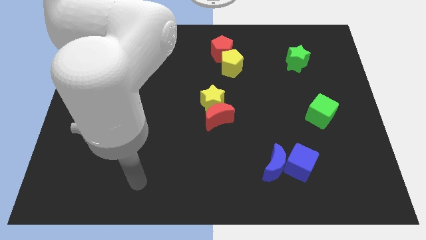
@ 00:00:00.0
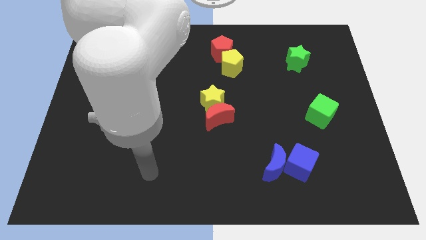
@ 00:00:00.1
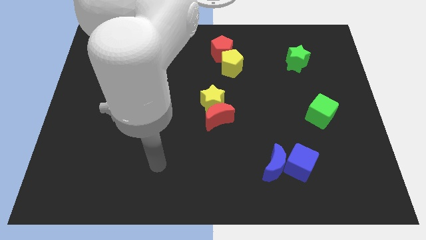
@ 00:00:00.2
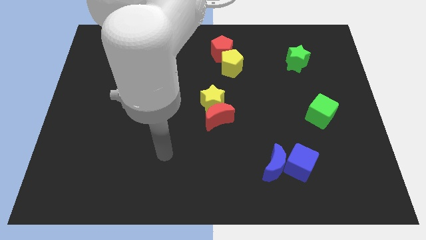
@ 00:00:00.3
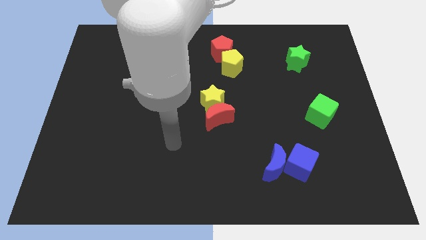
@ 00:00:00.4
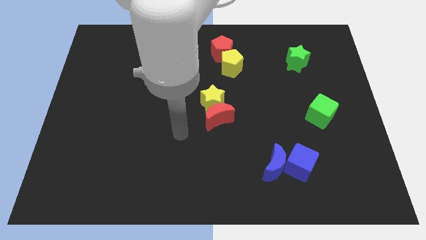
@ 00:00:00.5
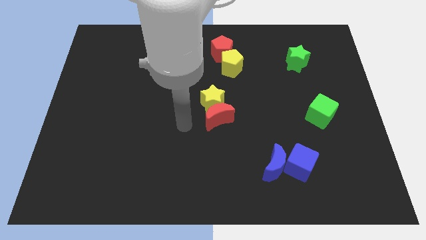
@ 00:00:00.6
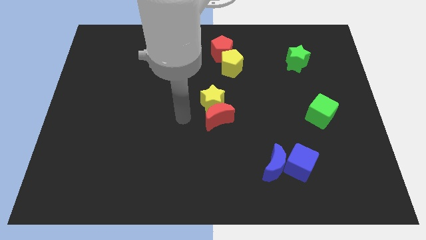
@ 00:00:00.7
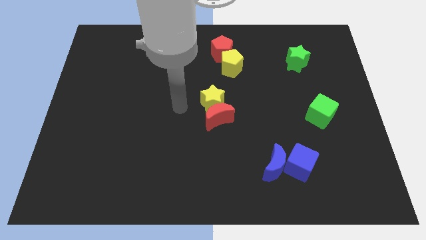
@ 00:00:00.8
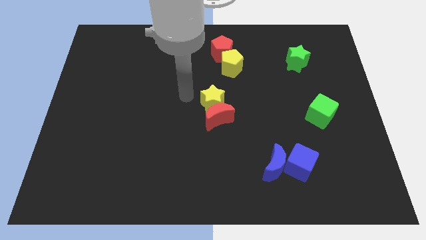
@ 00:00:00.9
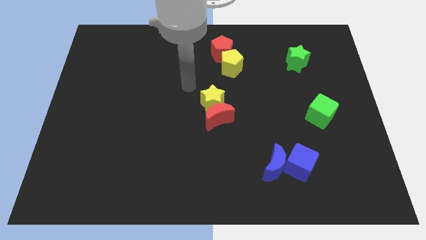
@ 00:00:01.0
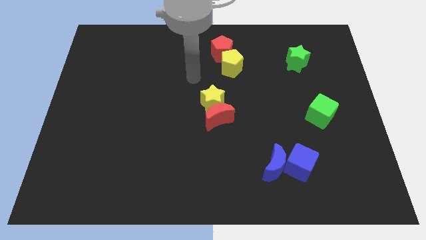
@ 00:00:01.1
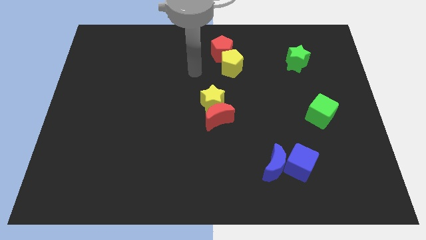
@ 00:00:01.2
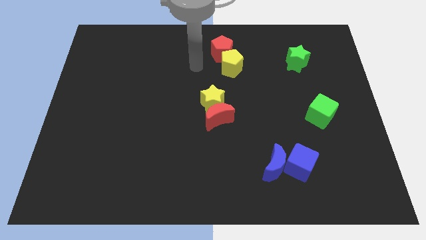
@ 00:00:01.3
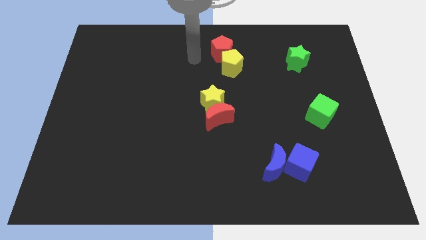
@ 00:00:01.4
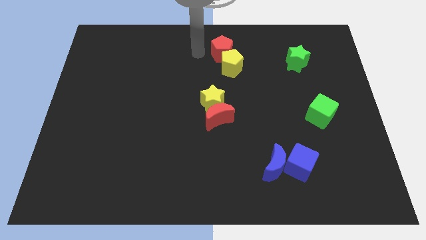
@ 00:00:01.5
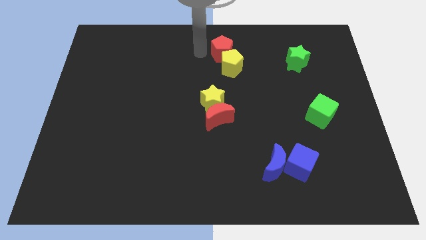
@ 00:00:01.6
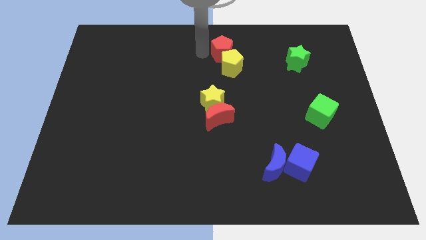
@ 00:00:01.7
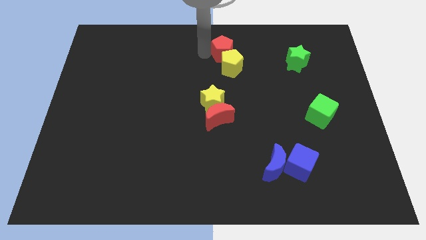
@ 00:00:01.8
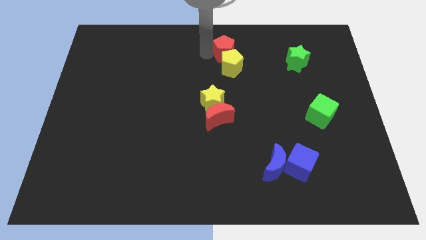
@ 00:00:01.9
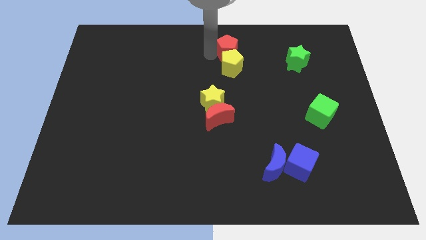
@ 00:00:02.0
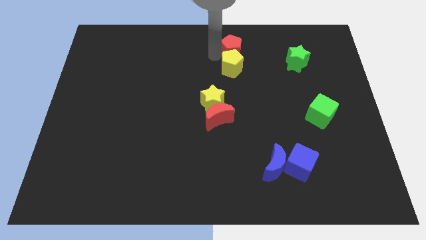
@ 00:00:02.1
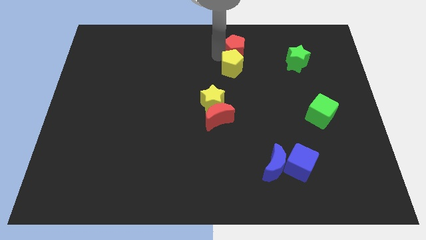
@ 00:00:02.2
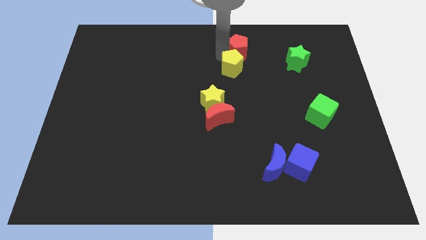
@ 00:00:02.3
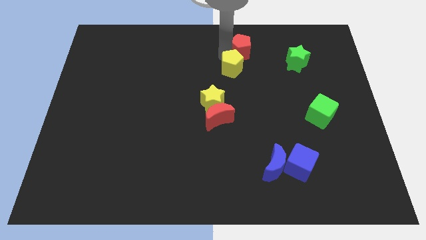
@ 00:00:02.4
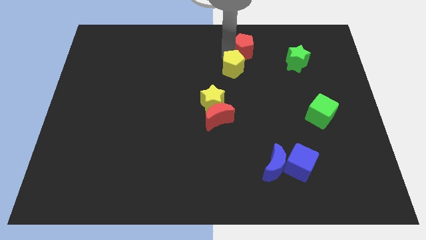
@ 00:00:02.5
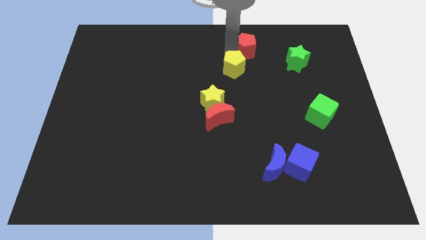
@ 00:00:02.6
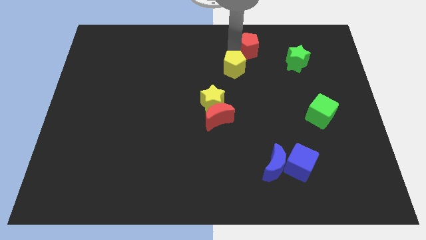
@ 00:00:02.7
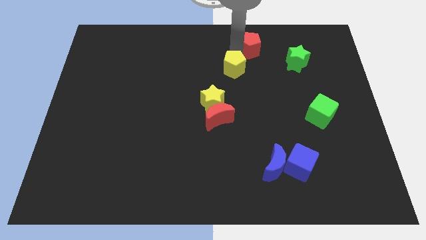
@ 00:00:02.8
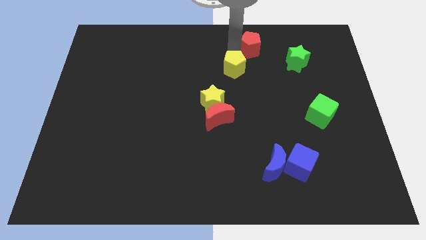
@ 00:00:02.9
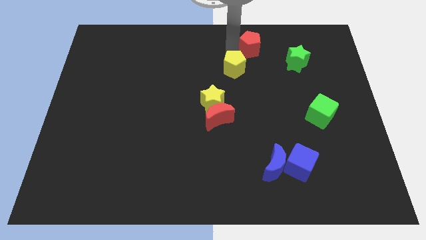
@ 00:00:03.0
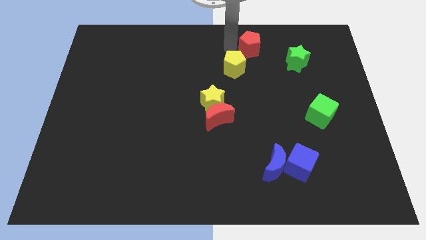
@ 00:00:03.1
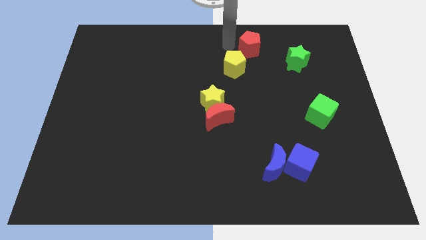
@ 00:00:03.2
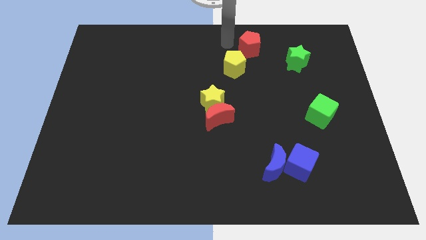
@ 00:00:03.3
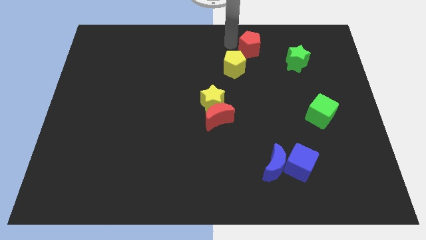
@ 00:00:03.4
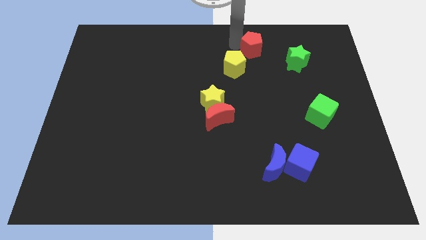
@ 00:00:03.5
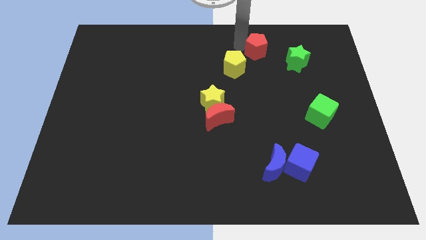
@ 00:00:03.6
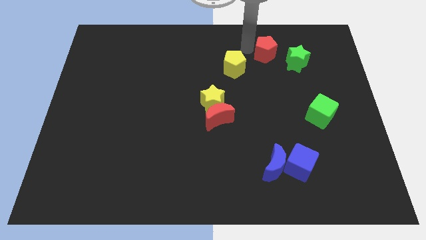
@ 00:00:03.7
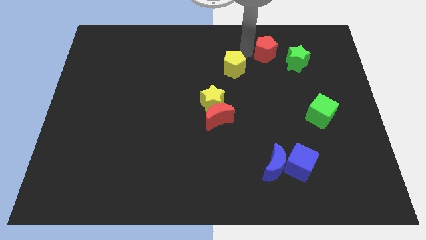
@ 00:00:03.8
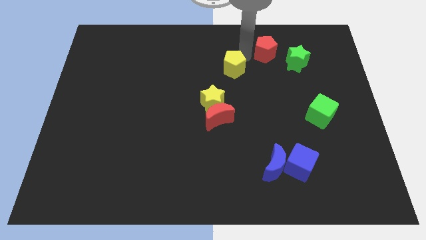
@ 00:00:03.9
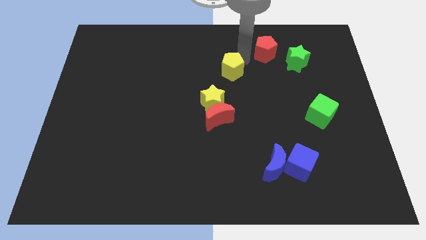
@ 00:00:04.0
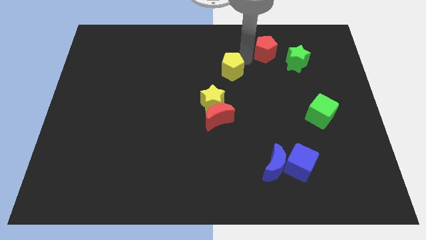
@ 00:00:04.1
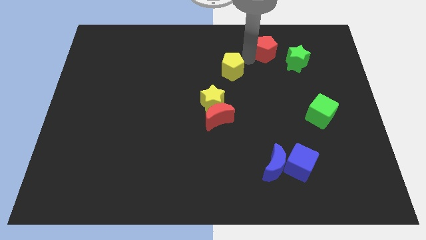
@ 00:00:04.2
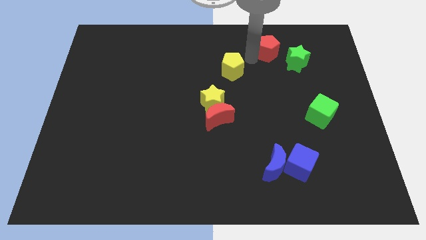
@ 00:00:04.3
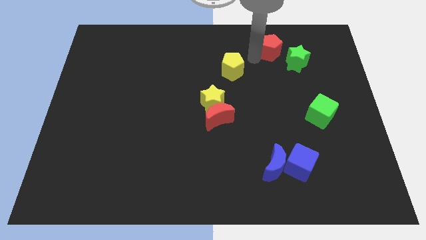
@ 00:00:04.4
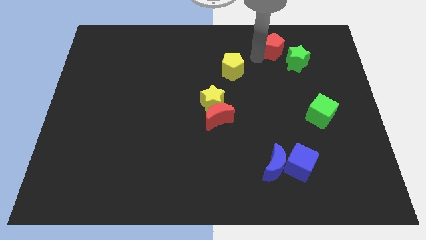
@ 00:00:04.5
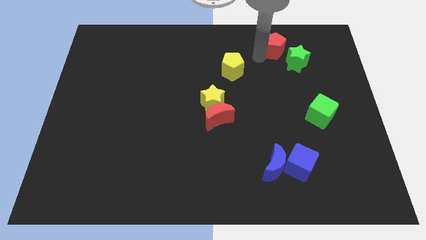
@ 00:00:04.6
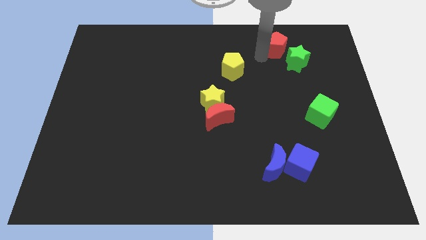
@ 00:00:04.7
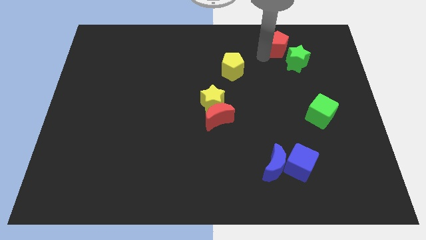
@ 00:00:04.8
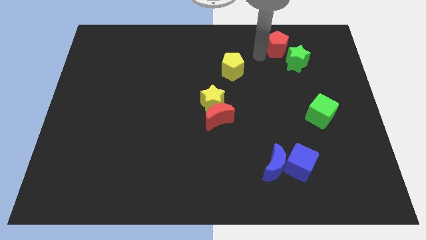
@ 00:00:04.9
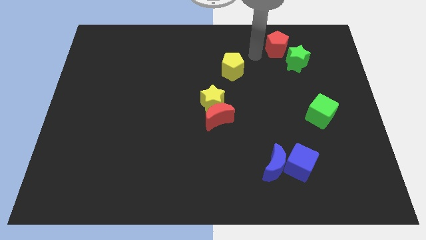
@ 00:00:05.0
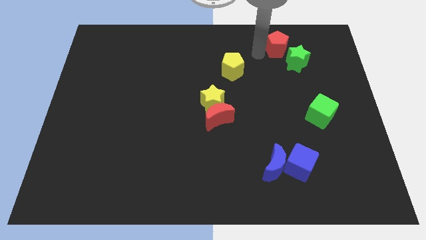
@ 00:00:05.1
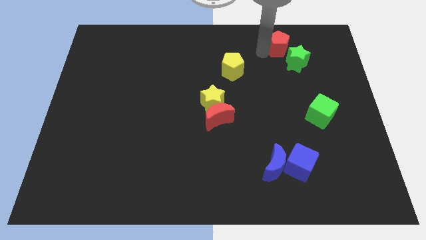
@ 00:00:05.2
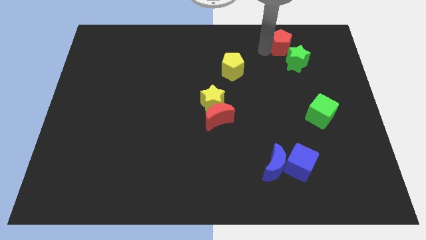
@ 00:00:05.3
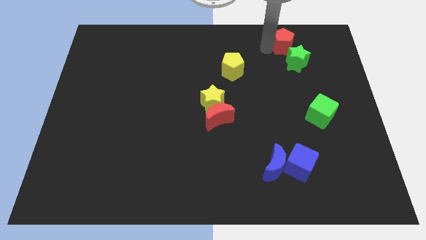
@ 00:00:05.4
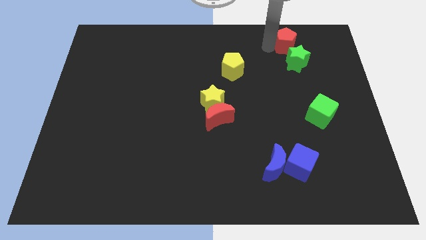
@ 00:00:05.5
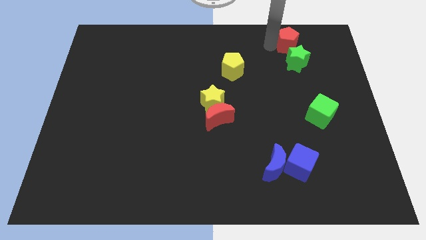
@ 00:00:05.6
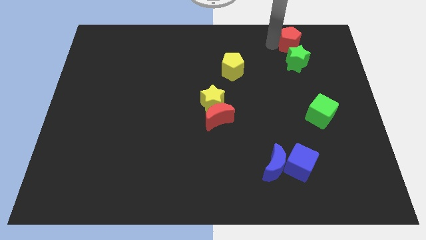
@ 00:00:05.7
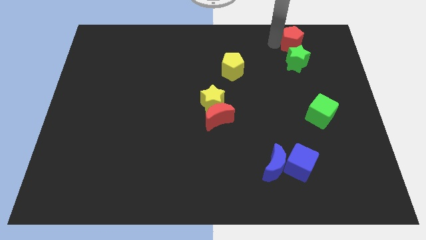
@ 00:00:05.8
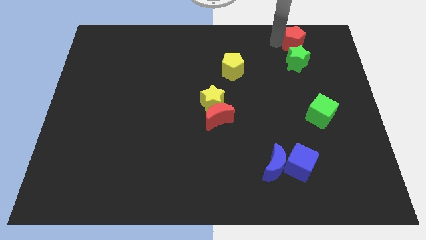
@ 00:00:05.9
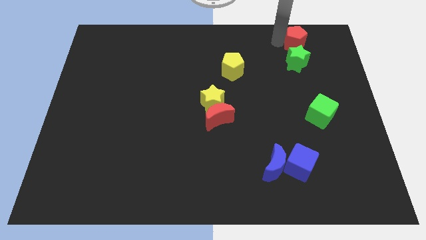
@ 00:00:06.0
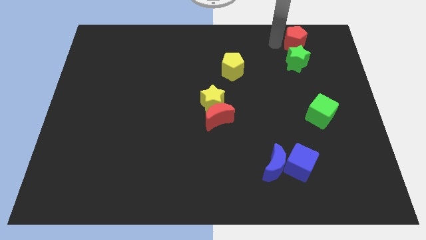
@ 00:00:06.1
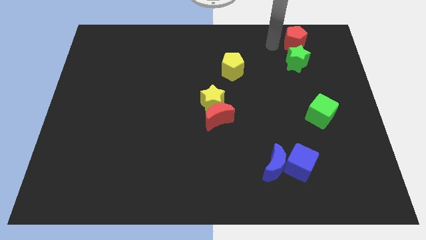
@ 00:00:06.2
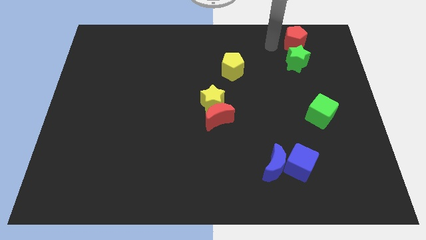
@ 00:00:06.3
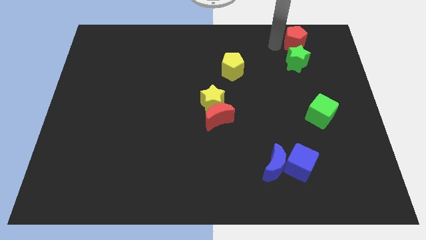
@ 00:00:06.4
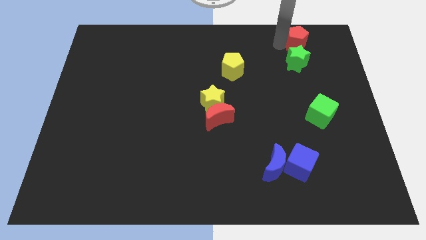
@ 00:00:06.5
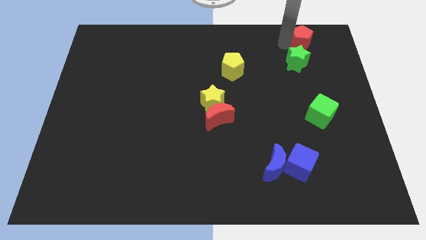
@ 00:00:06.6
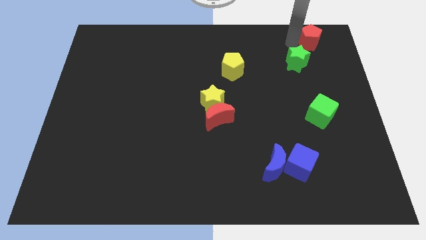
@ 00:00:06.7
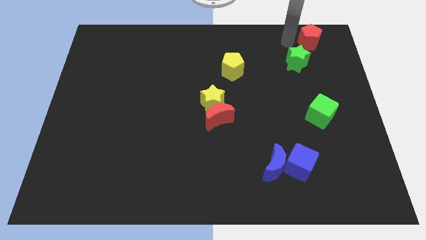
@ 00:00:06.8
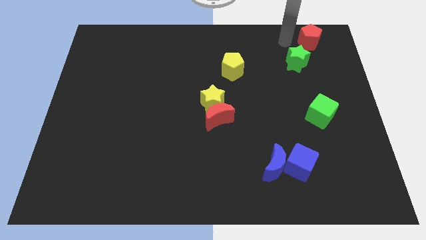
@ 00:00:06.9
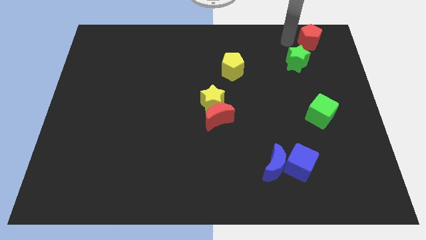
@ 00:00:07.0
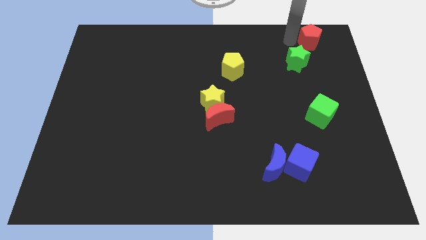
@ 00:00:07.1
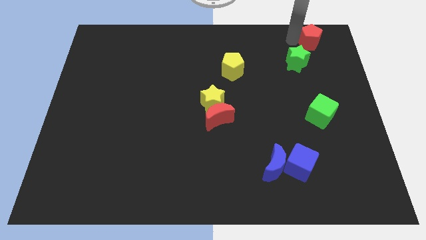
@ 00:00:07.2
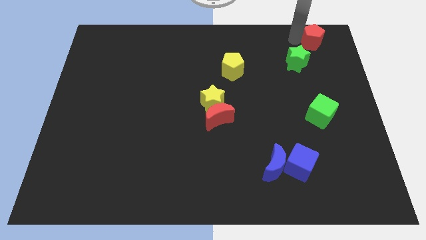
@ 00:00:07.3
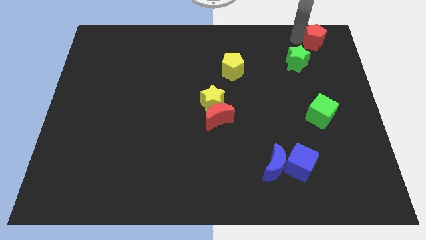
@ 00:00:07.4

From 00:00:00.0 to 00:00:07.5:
slide the red pentagon to the top right of the board
